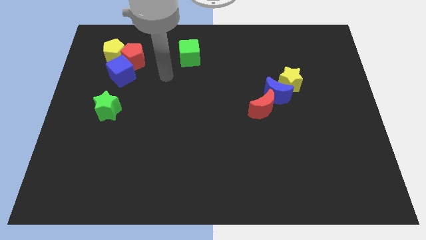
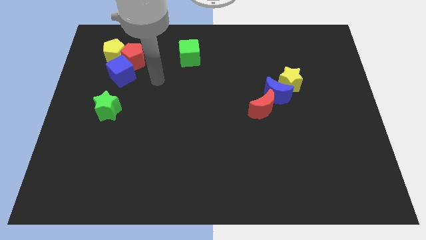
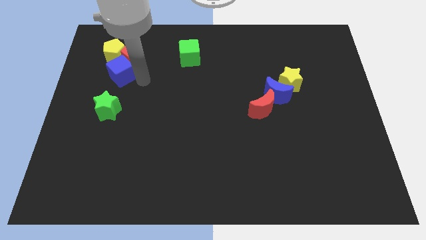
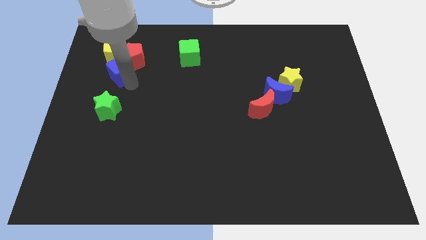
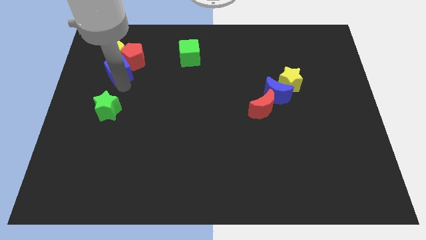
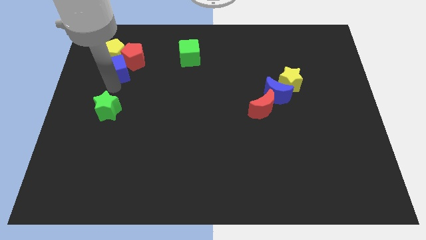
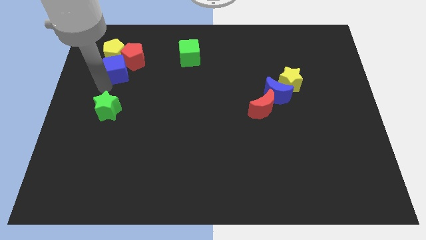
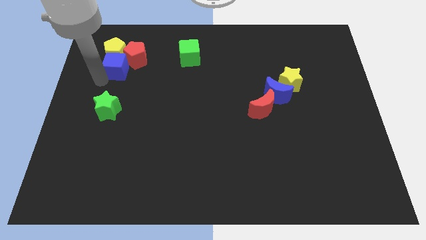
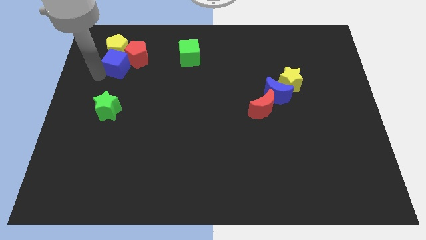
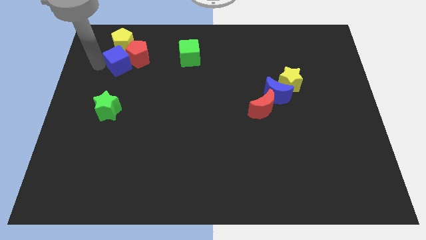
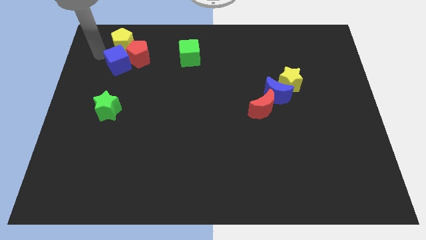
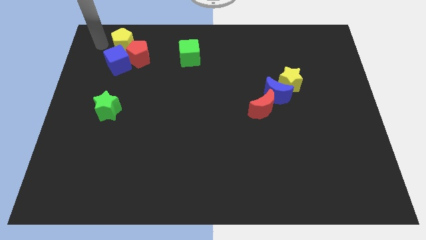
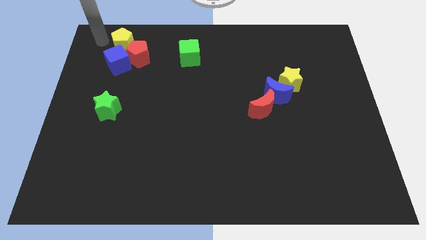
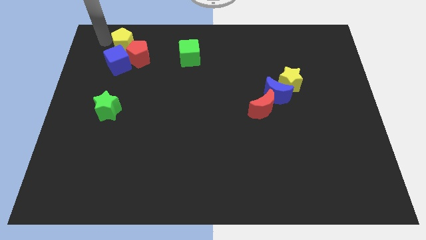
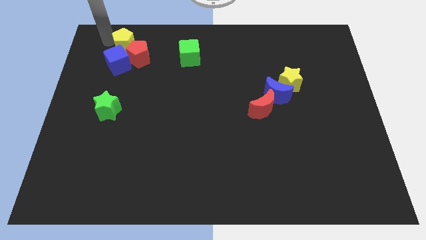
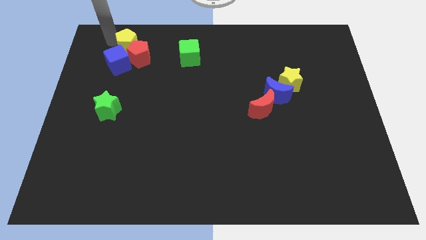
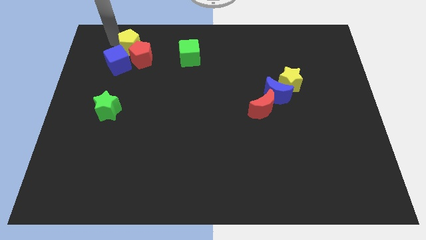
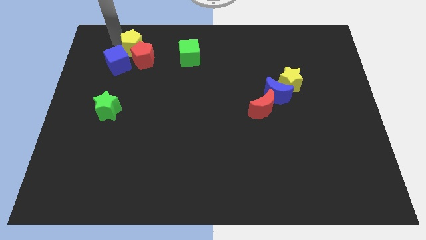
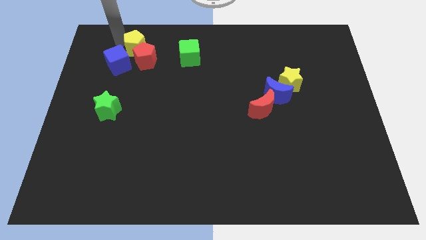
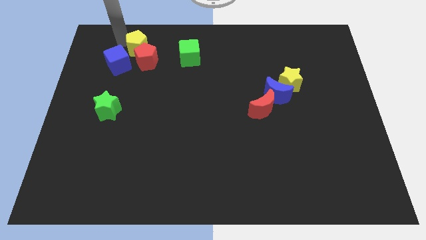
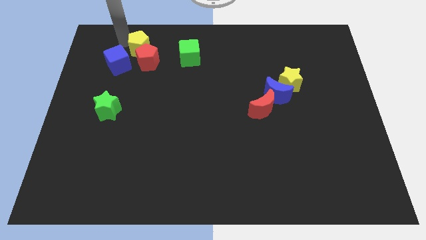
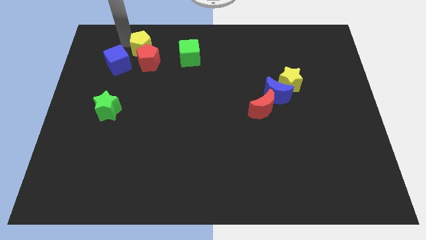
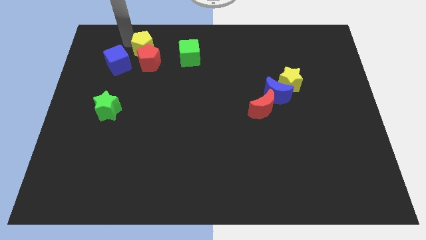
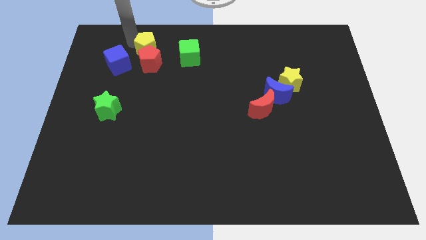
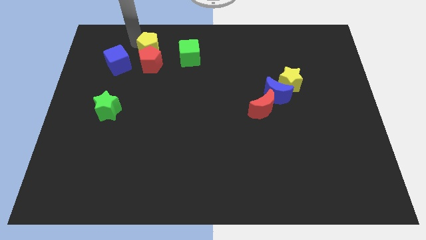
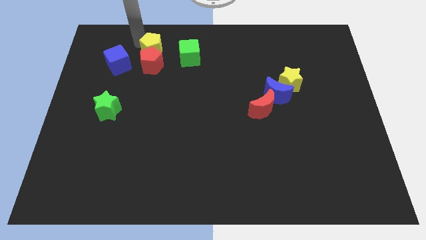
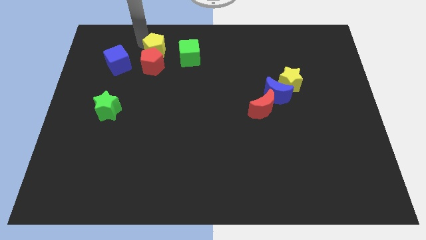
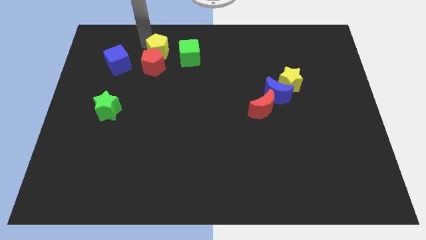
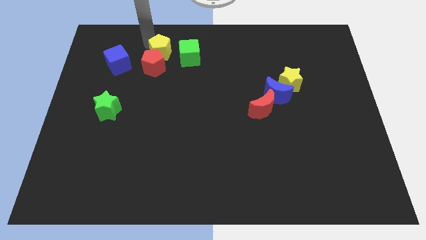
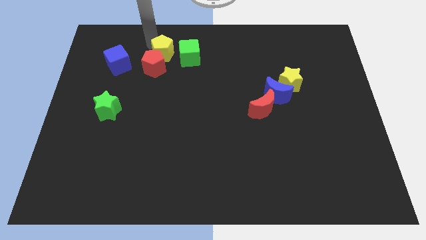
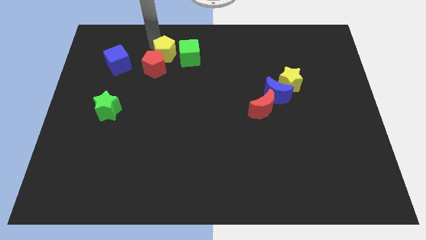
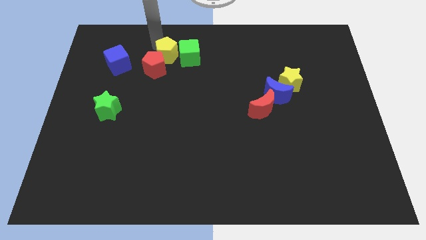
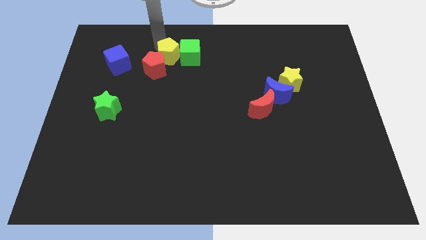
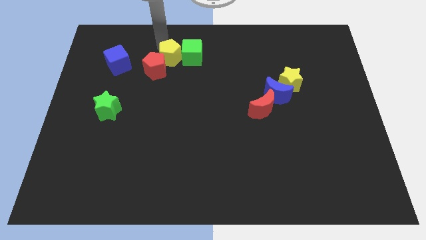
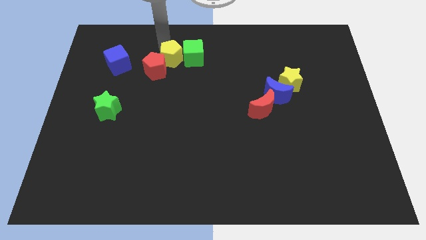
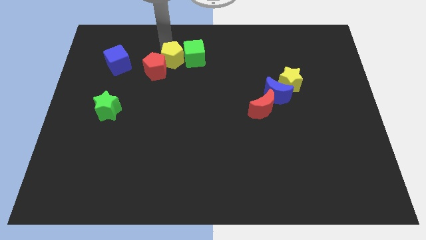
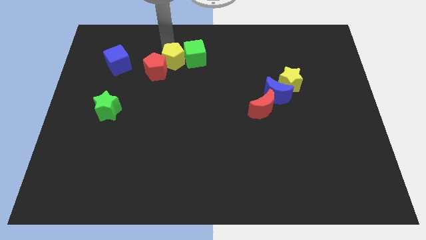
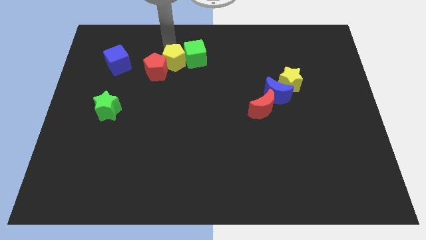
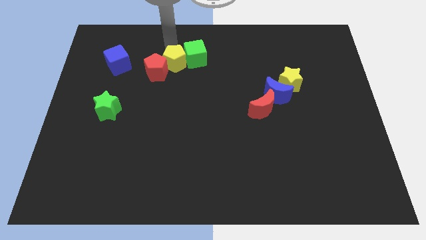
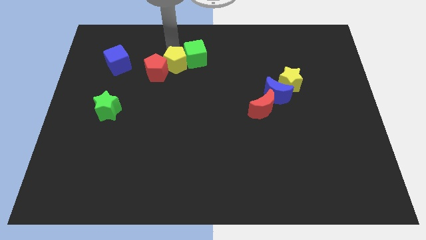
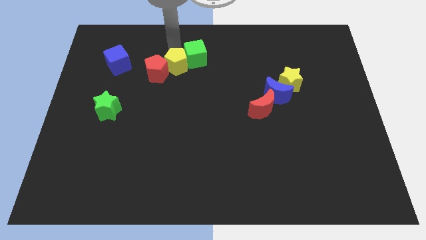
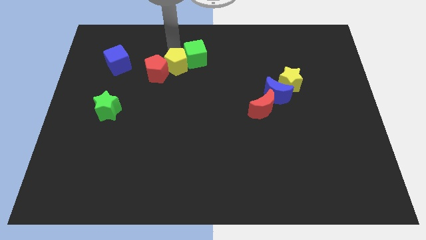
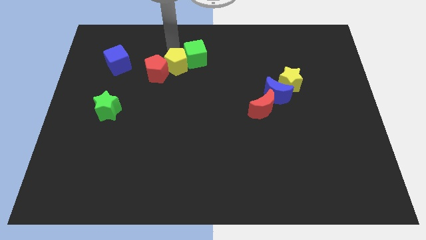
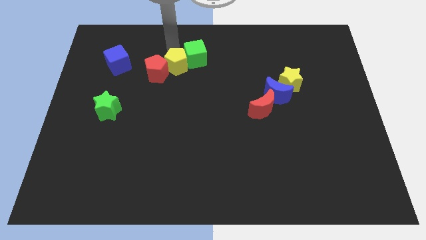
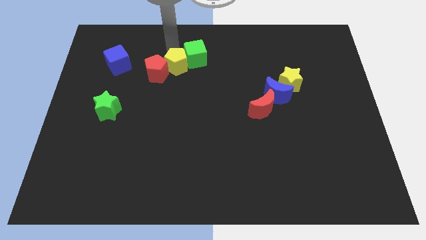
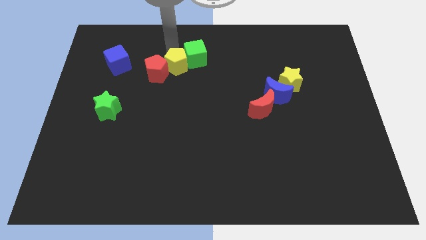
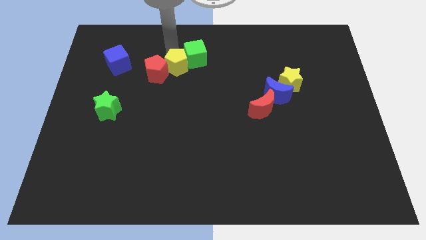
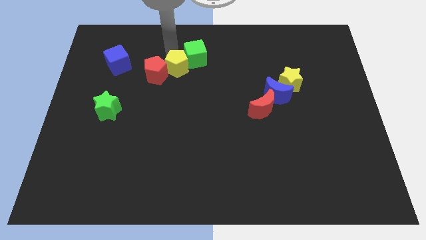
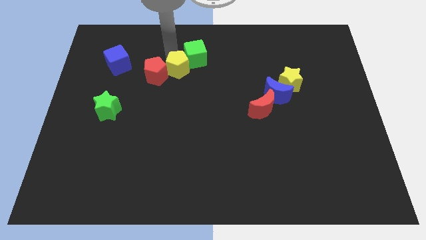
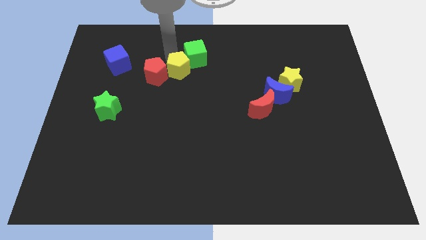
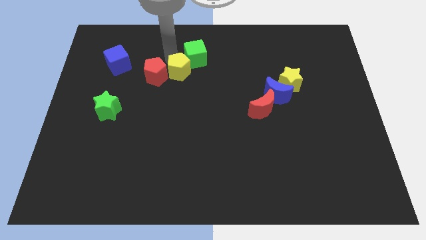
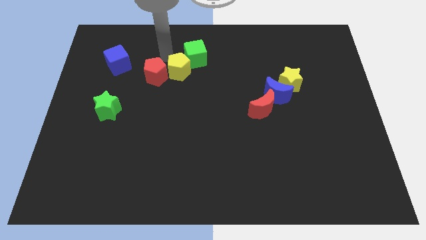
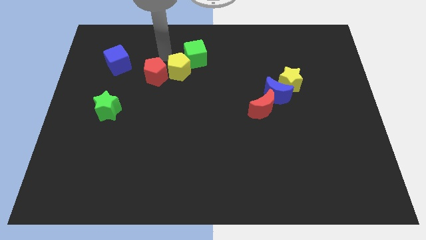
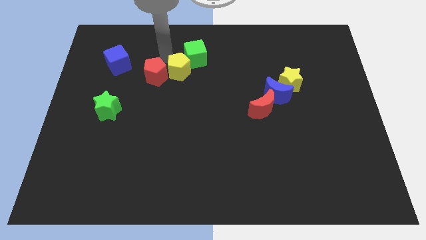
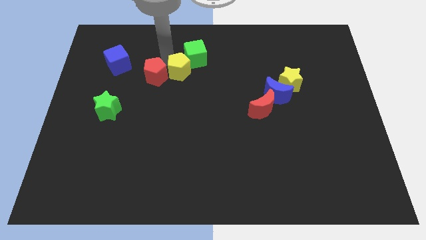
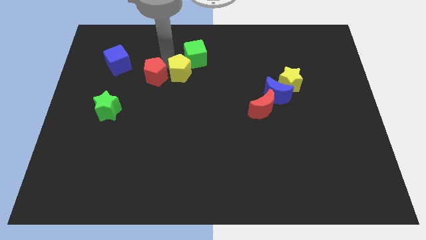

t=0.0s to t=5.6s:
slide the yellow pentagon to the center of the board
